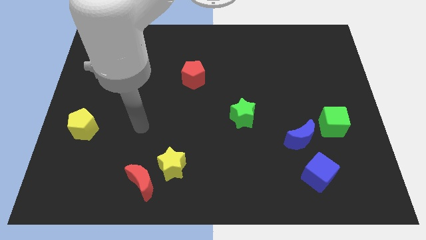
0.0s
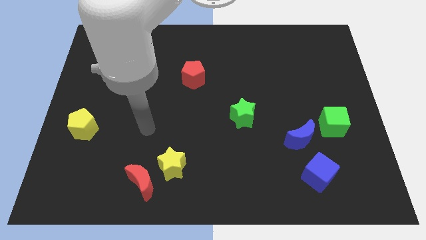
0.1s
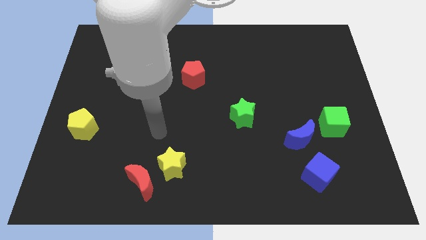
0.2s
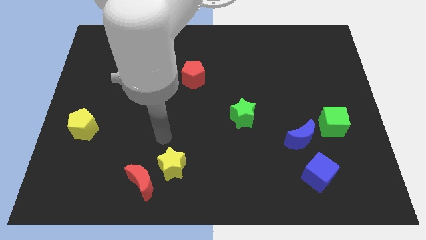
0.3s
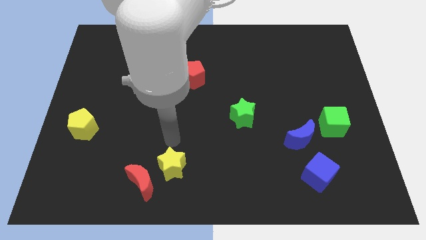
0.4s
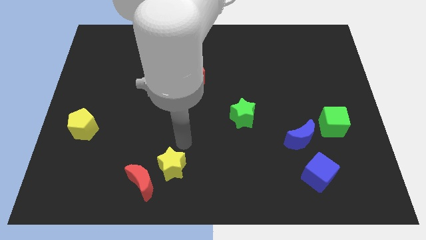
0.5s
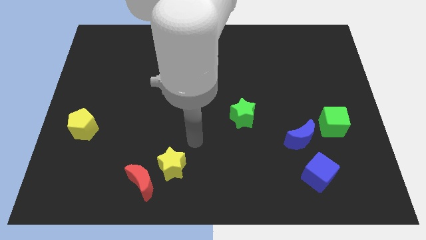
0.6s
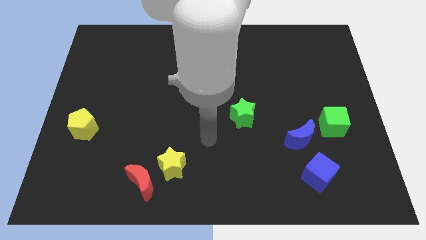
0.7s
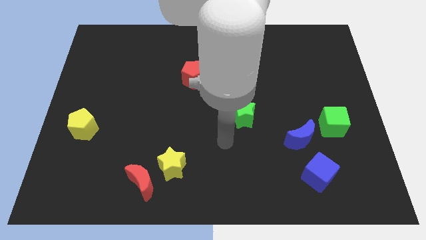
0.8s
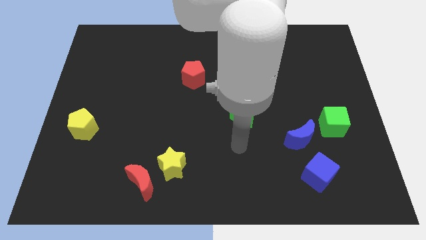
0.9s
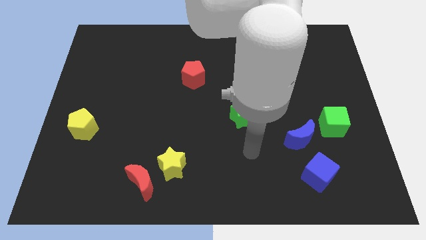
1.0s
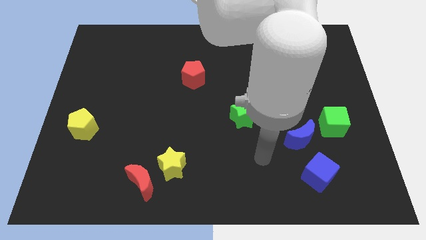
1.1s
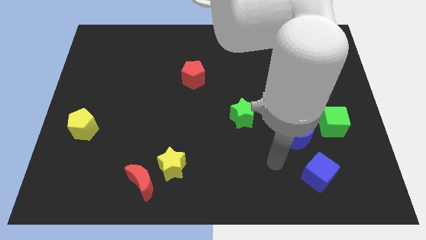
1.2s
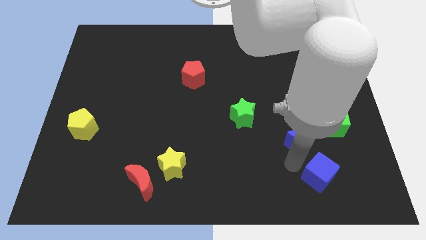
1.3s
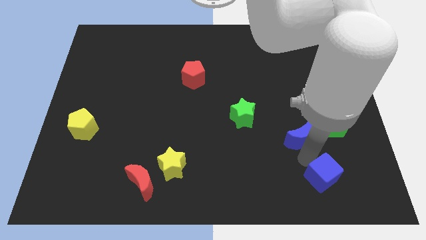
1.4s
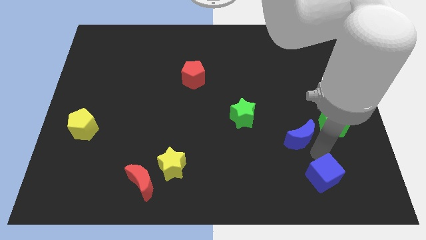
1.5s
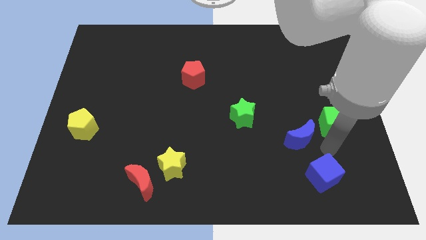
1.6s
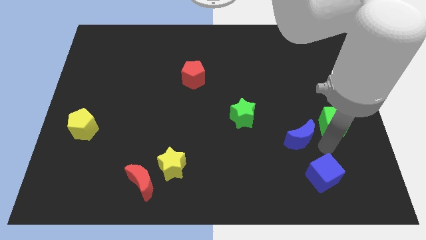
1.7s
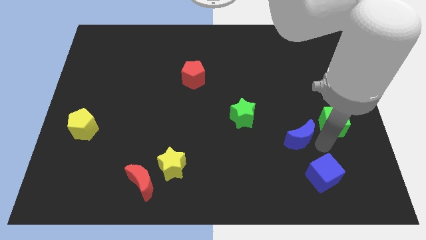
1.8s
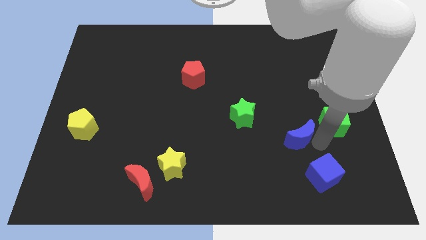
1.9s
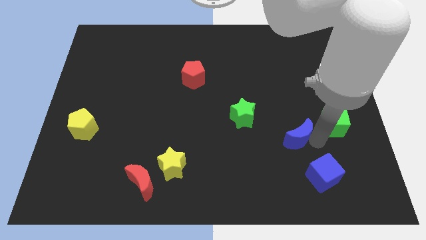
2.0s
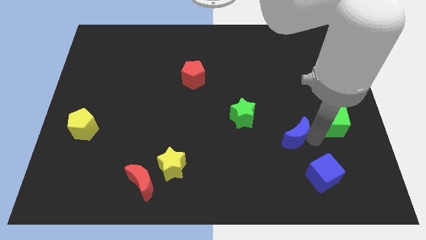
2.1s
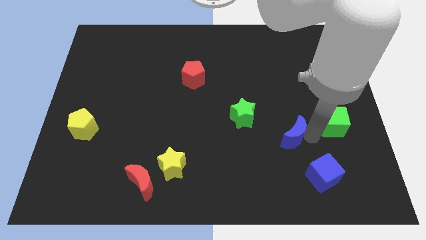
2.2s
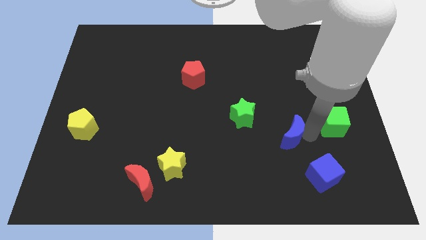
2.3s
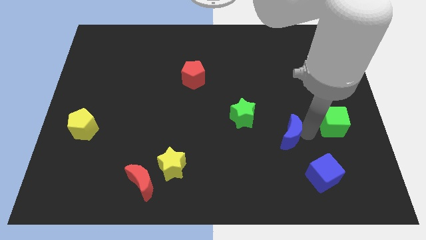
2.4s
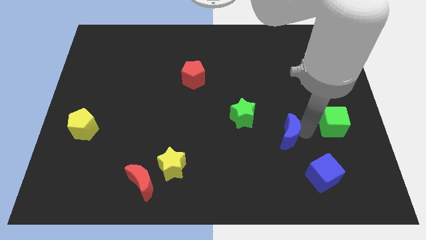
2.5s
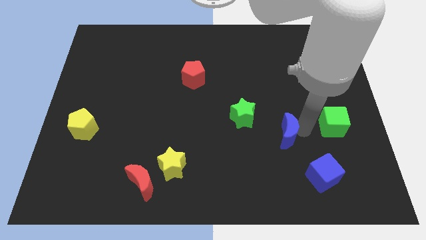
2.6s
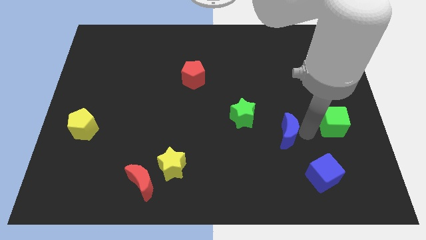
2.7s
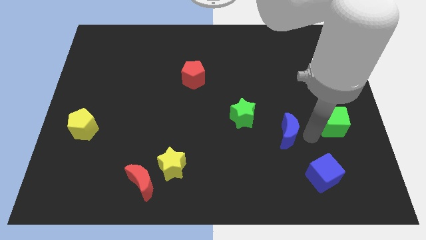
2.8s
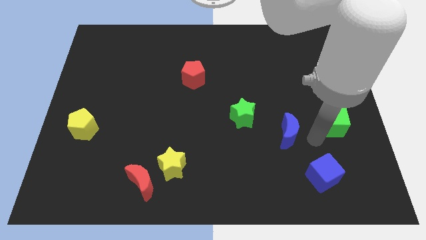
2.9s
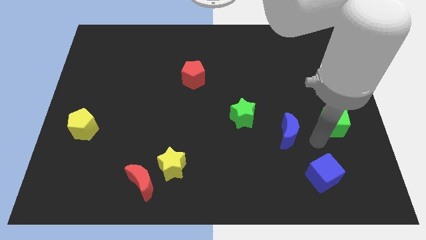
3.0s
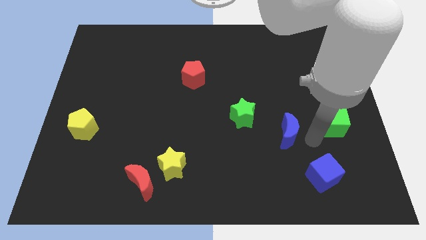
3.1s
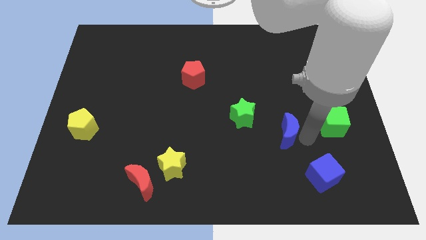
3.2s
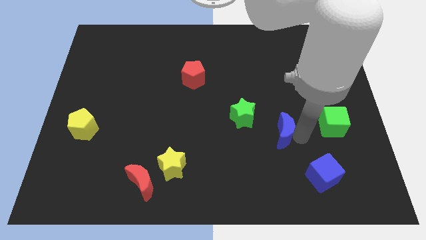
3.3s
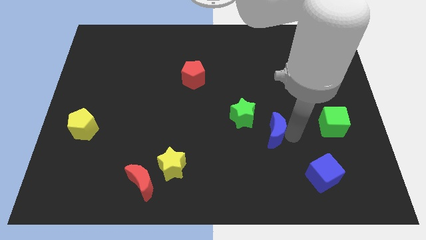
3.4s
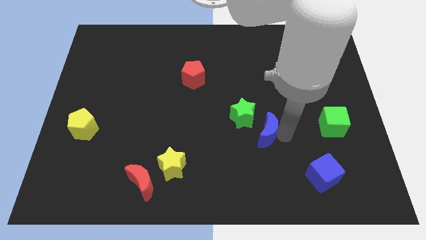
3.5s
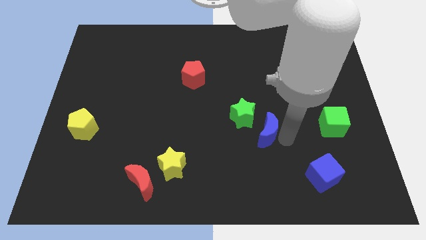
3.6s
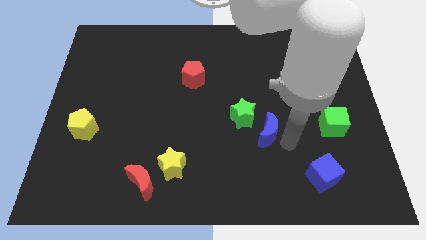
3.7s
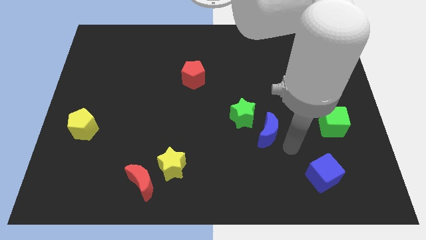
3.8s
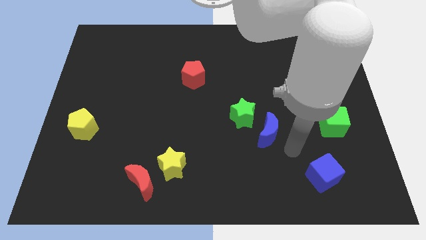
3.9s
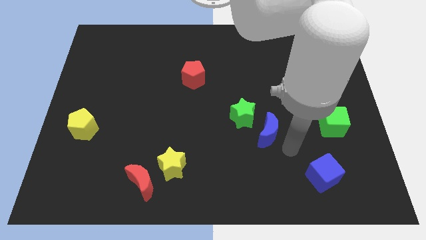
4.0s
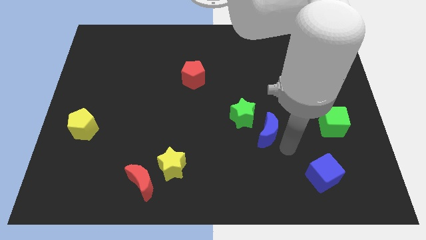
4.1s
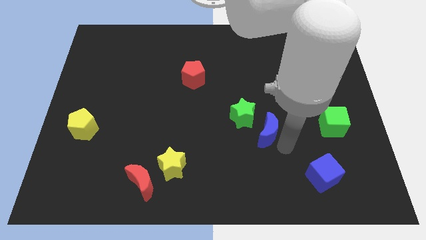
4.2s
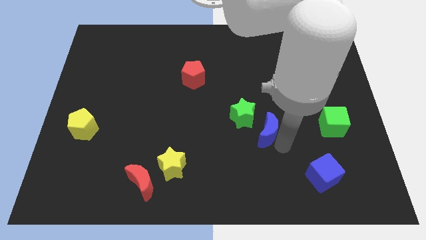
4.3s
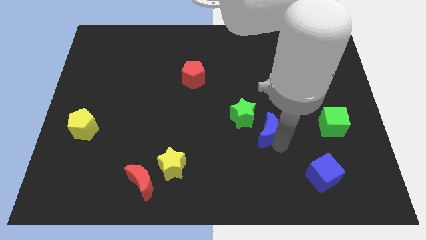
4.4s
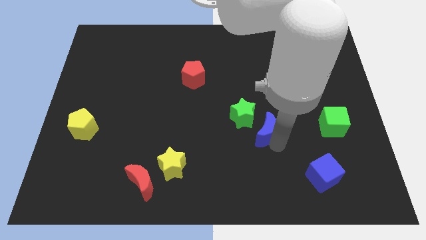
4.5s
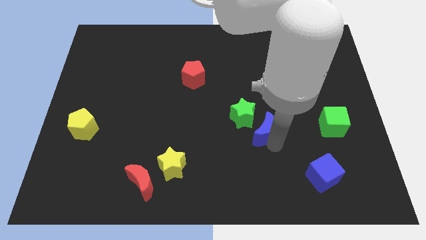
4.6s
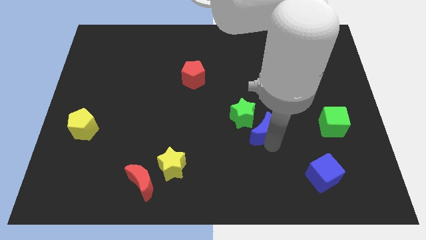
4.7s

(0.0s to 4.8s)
push the blue moon close to the green star

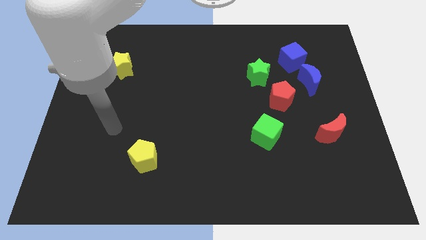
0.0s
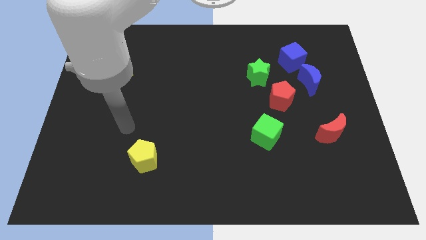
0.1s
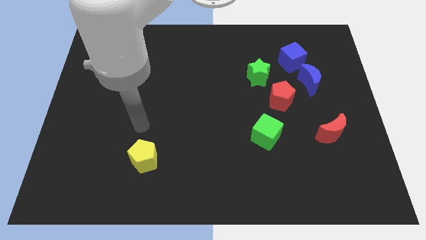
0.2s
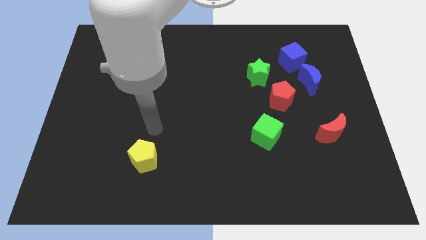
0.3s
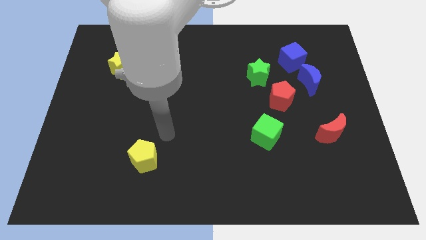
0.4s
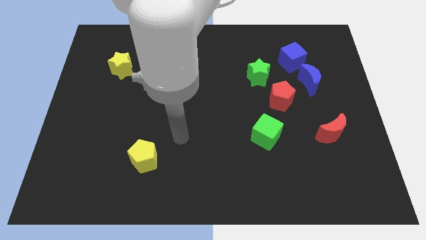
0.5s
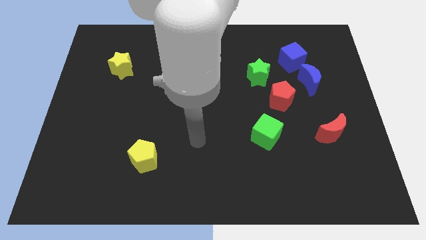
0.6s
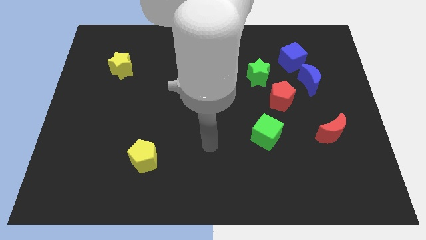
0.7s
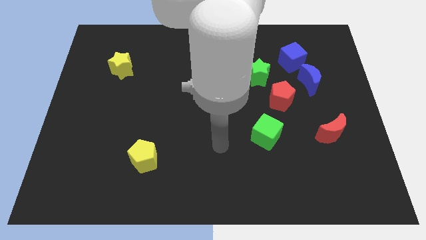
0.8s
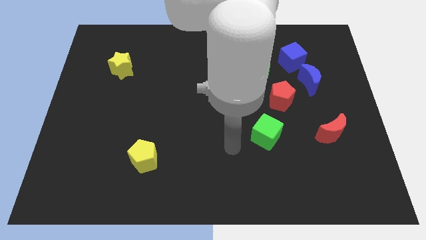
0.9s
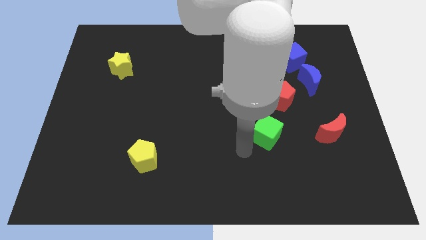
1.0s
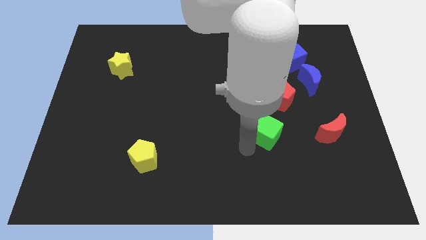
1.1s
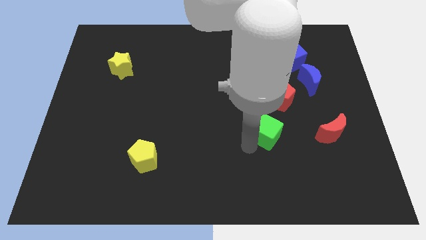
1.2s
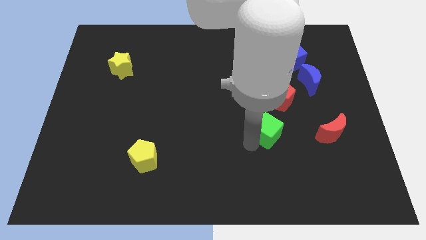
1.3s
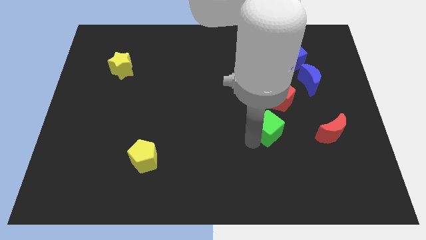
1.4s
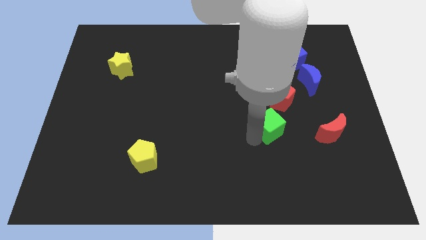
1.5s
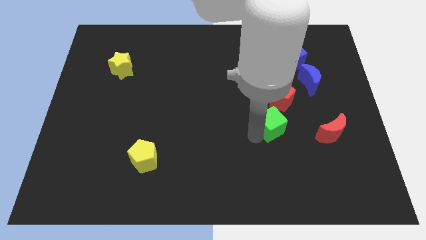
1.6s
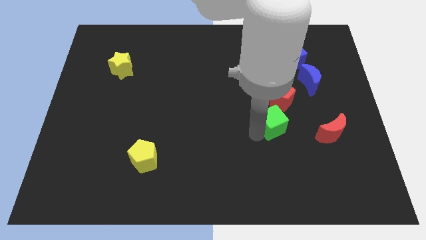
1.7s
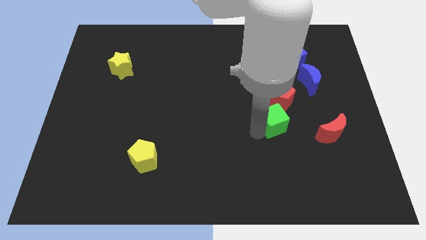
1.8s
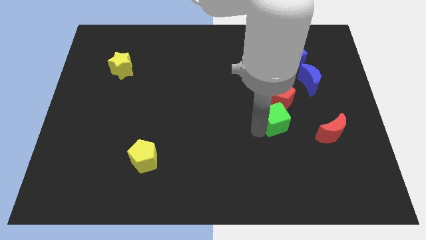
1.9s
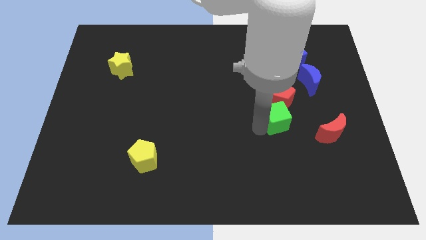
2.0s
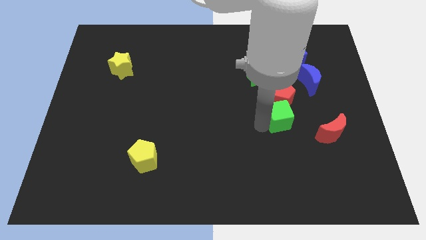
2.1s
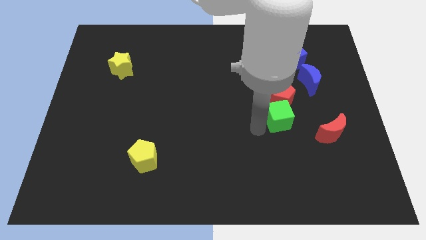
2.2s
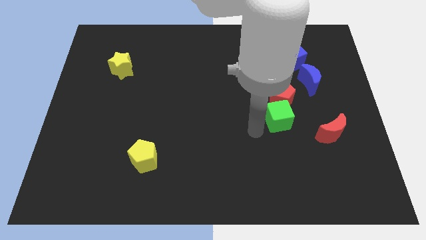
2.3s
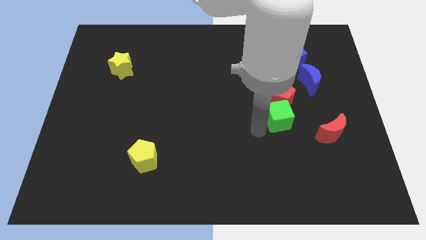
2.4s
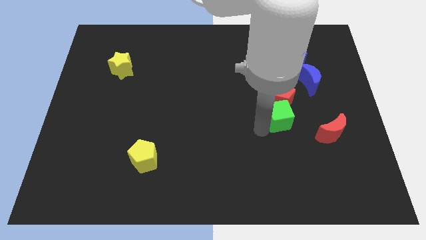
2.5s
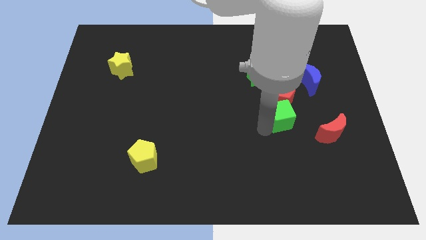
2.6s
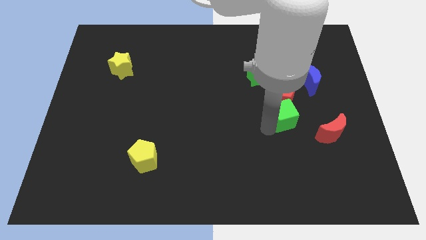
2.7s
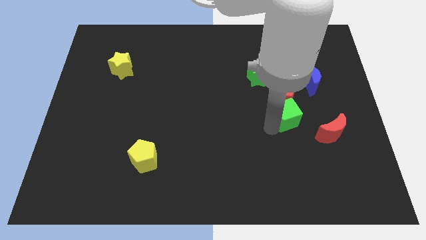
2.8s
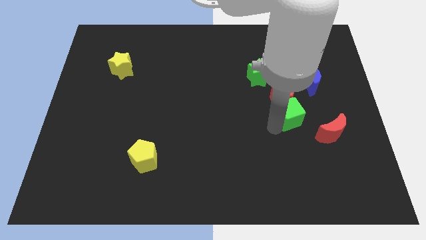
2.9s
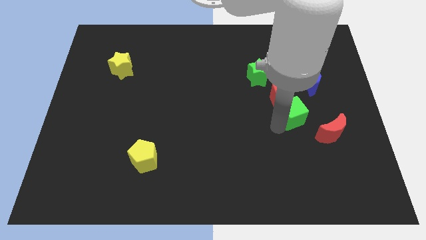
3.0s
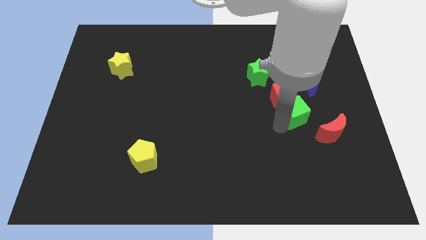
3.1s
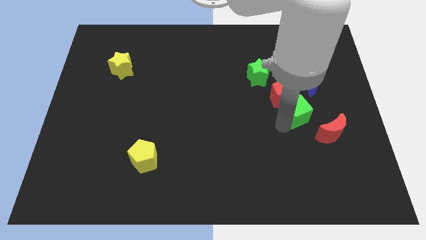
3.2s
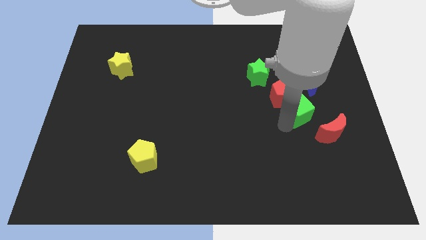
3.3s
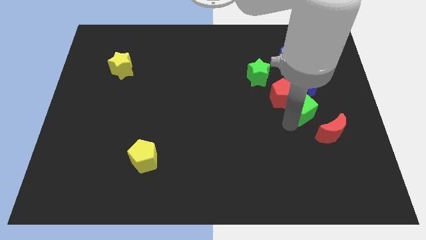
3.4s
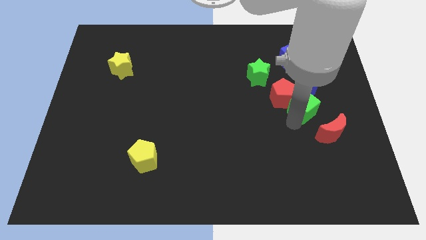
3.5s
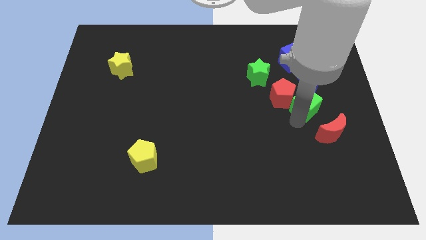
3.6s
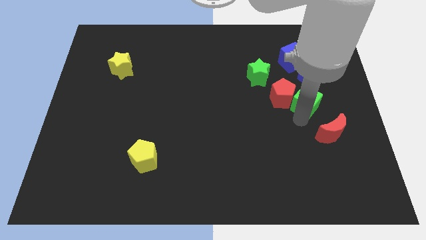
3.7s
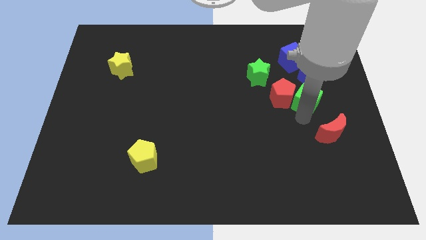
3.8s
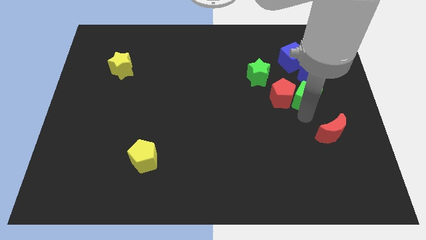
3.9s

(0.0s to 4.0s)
put the green cube to the blue moon
